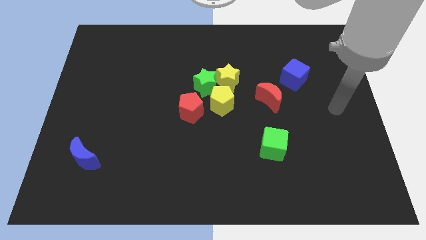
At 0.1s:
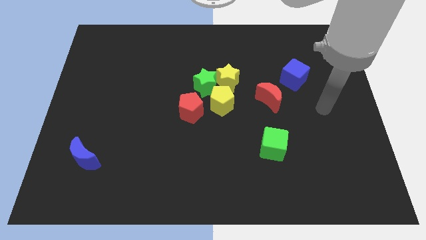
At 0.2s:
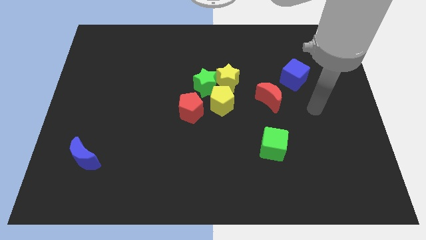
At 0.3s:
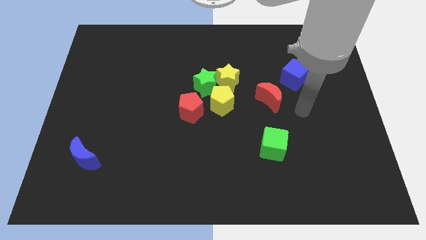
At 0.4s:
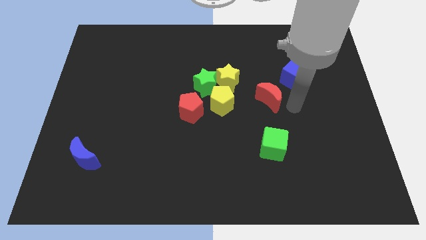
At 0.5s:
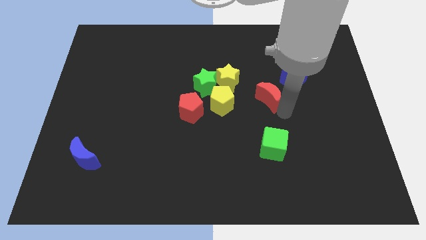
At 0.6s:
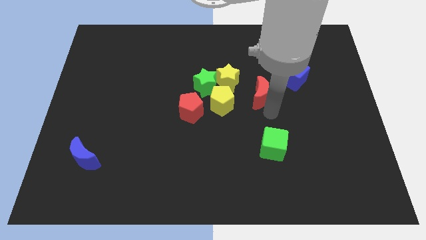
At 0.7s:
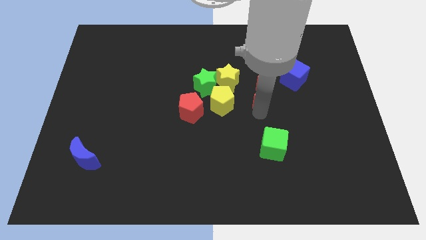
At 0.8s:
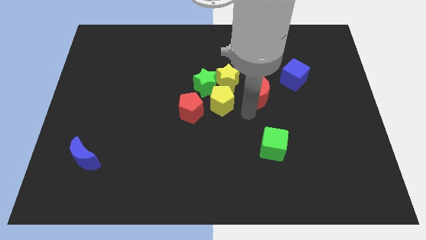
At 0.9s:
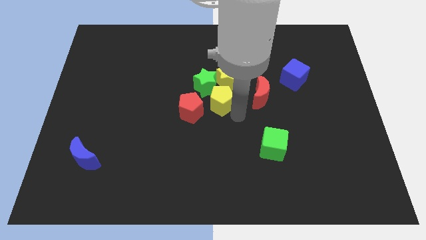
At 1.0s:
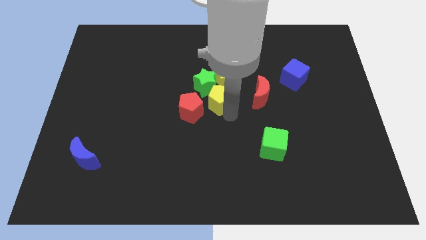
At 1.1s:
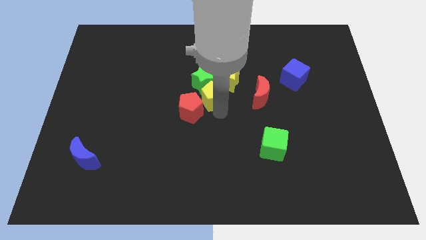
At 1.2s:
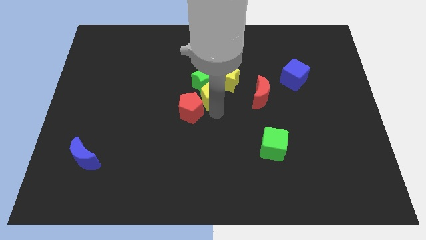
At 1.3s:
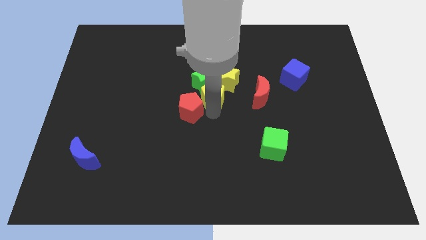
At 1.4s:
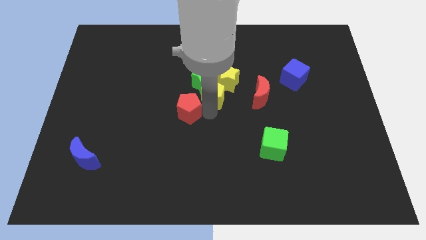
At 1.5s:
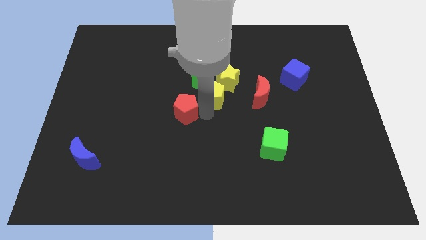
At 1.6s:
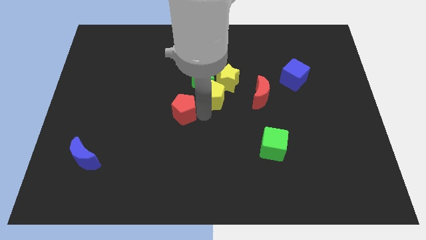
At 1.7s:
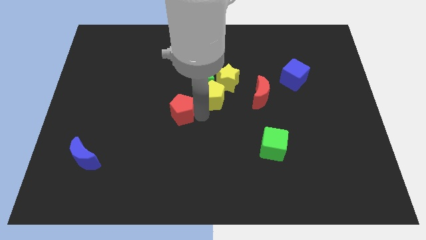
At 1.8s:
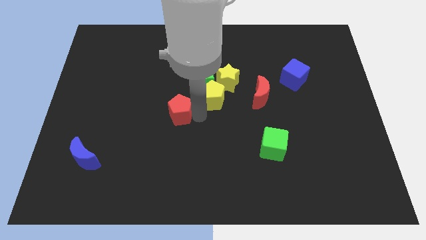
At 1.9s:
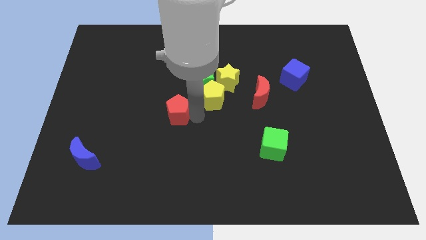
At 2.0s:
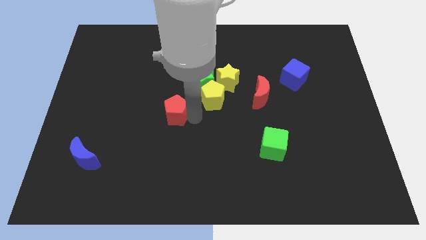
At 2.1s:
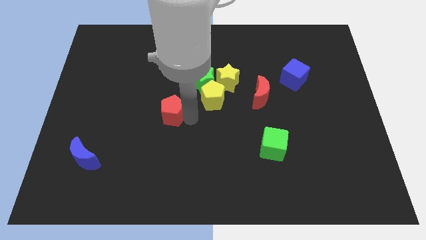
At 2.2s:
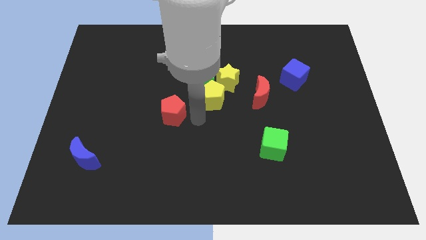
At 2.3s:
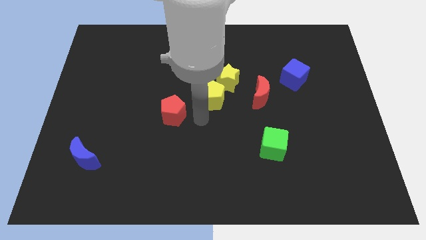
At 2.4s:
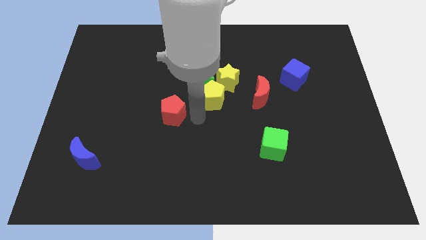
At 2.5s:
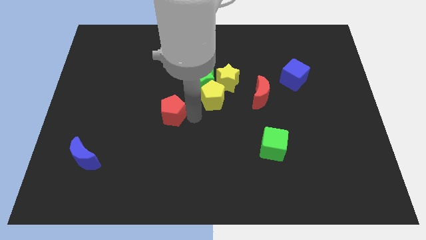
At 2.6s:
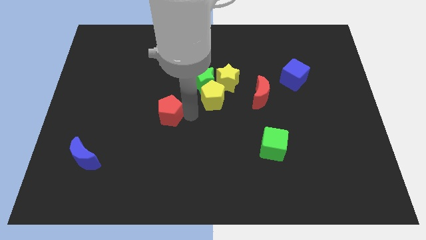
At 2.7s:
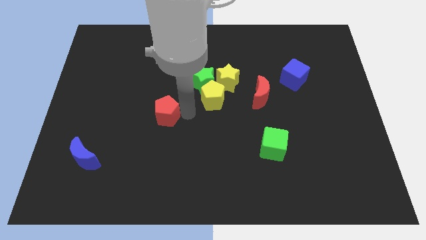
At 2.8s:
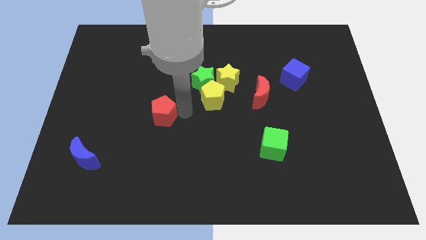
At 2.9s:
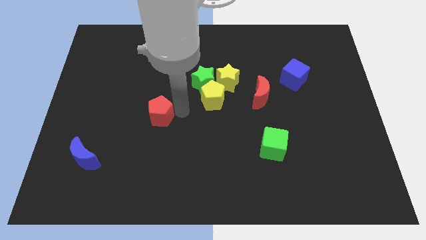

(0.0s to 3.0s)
push the red pentagon to the left a little bit

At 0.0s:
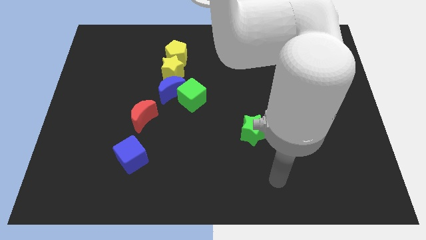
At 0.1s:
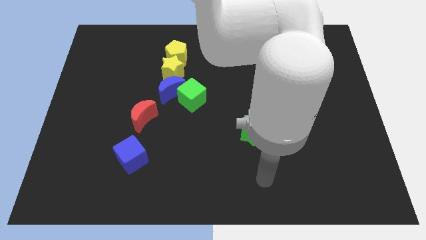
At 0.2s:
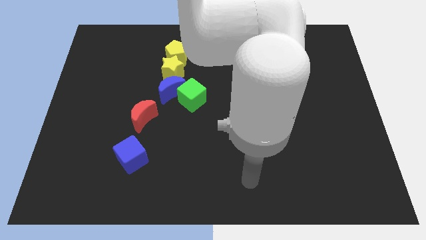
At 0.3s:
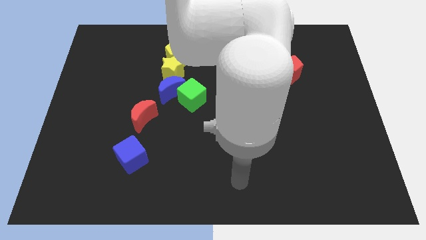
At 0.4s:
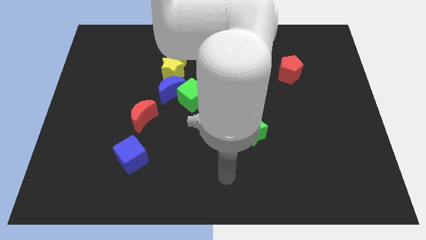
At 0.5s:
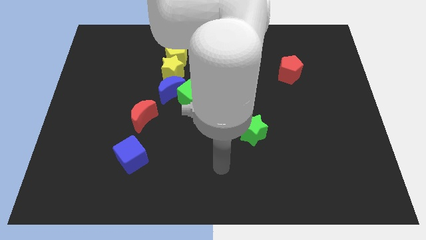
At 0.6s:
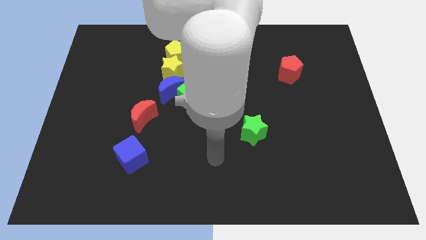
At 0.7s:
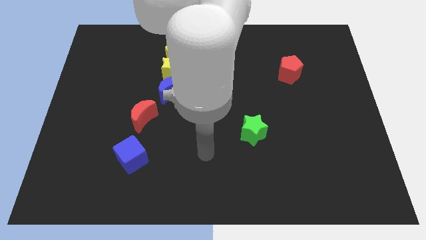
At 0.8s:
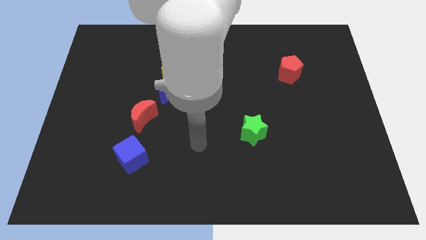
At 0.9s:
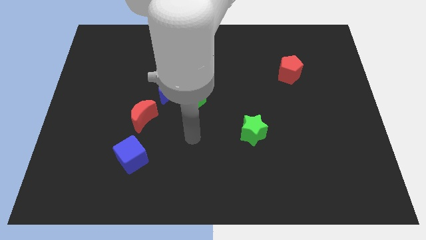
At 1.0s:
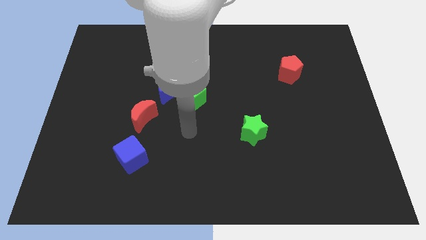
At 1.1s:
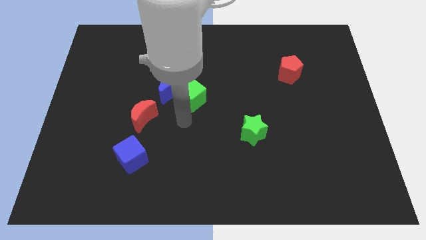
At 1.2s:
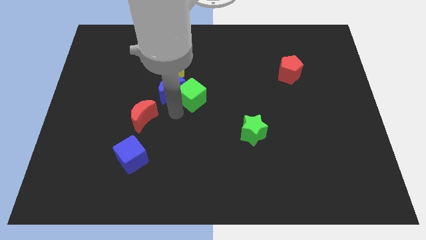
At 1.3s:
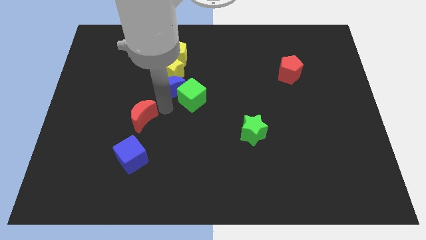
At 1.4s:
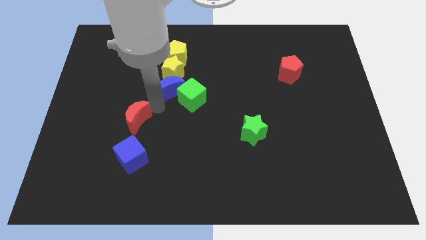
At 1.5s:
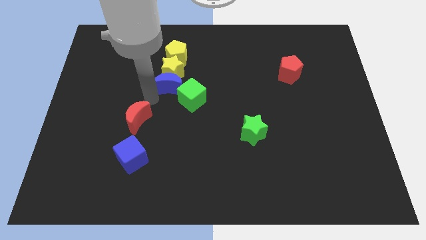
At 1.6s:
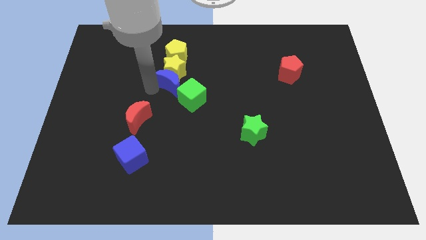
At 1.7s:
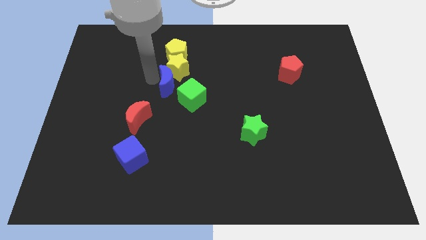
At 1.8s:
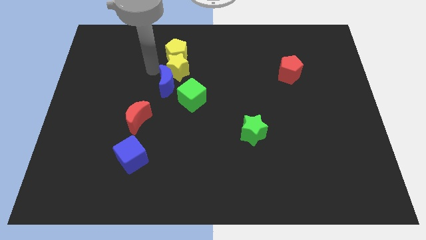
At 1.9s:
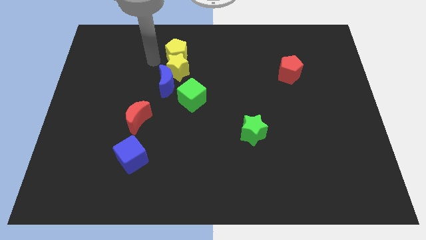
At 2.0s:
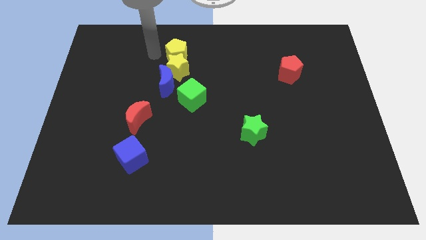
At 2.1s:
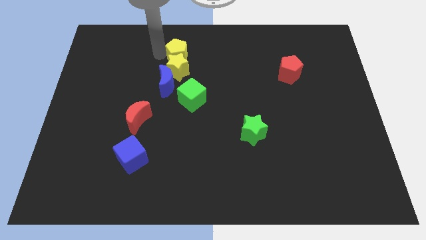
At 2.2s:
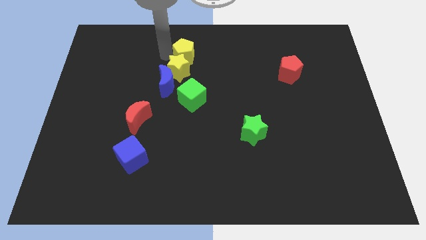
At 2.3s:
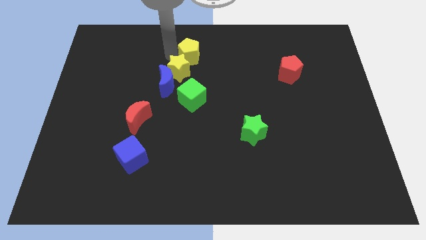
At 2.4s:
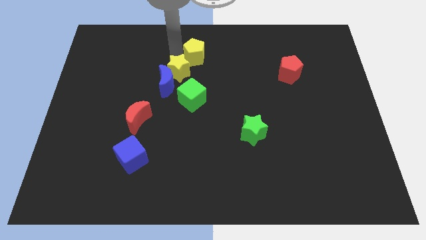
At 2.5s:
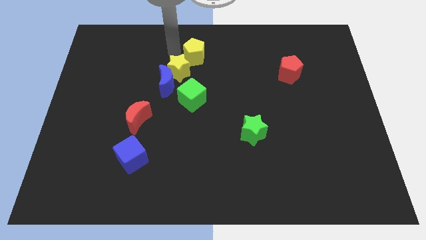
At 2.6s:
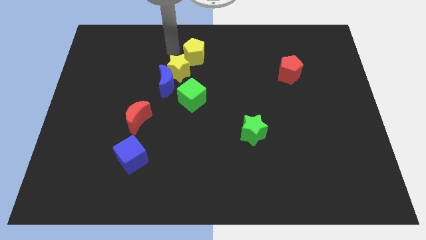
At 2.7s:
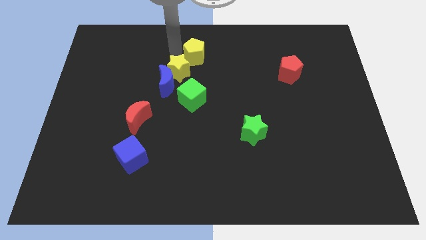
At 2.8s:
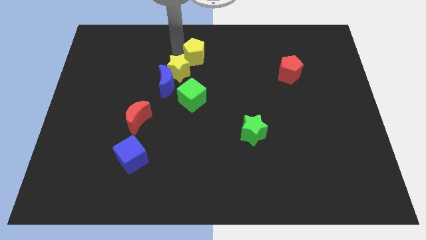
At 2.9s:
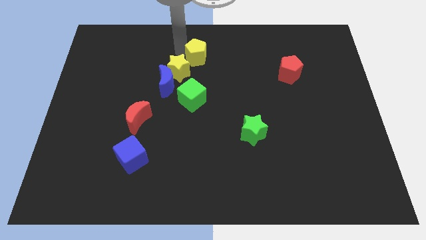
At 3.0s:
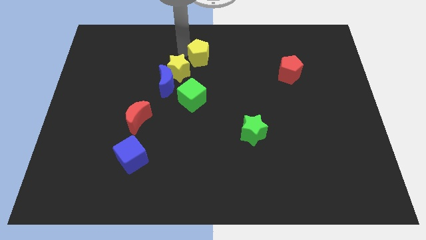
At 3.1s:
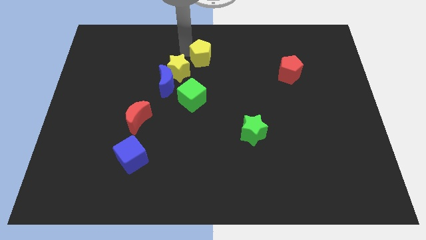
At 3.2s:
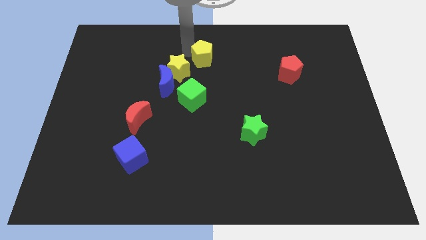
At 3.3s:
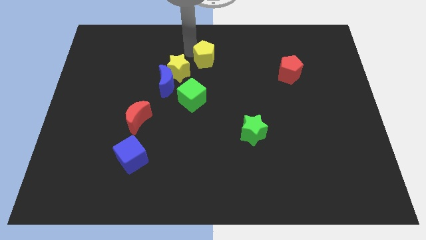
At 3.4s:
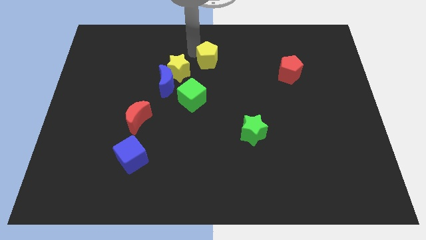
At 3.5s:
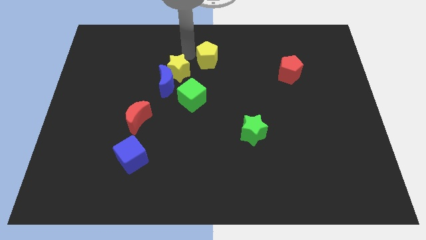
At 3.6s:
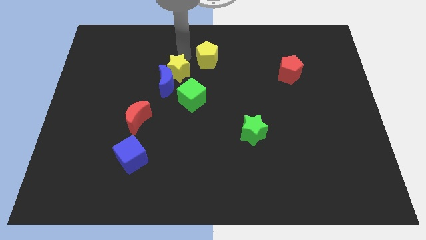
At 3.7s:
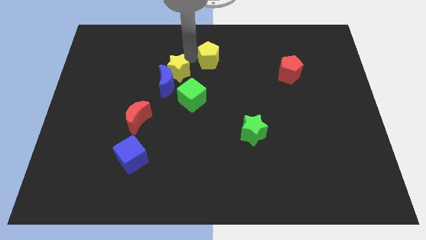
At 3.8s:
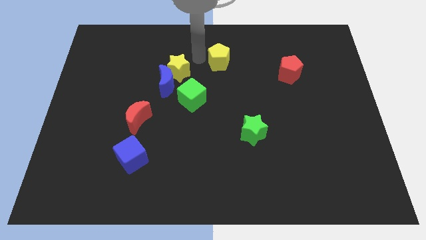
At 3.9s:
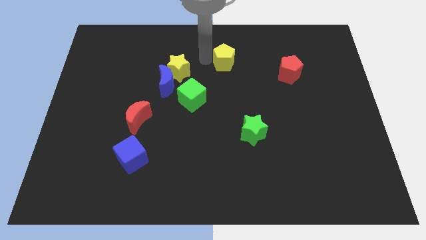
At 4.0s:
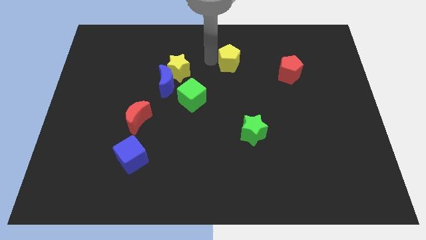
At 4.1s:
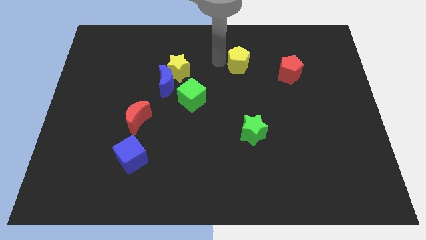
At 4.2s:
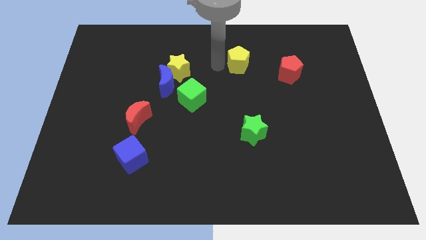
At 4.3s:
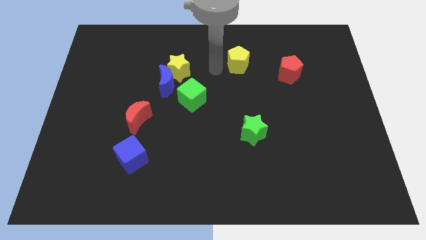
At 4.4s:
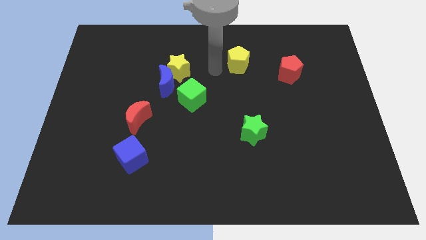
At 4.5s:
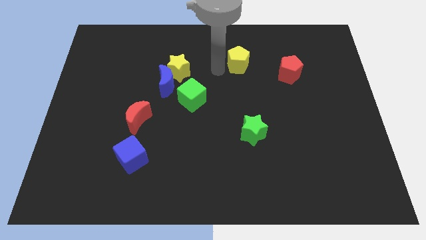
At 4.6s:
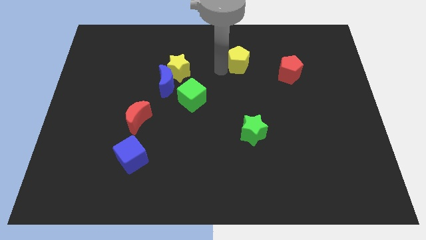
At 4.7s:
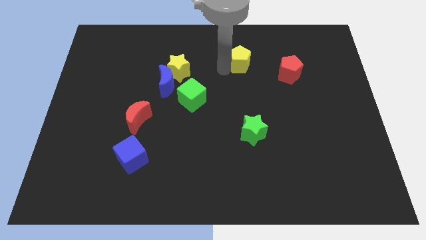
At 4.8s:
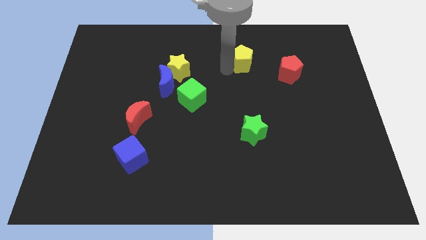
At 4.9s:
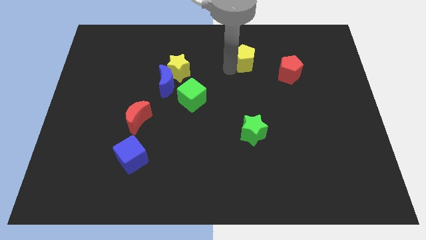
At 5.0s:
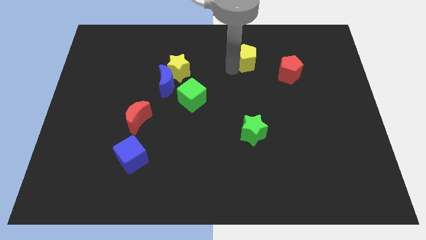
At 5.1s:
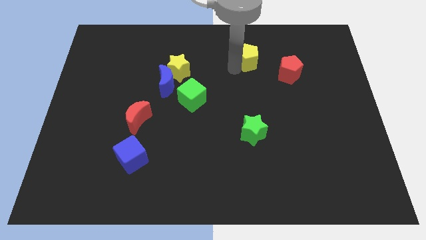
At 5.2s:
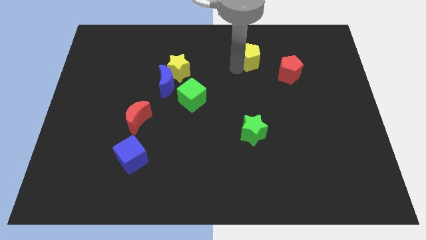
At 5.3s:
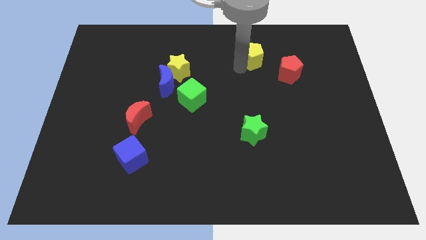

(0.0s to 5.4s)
slide the yellow pentagon to the right
